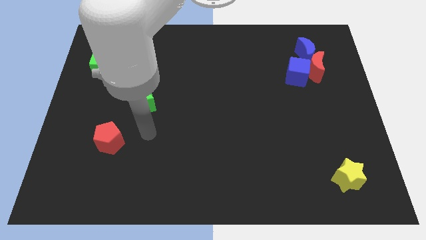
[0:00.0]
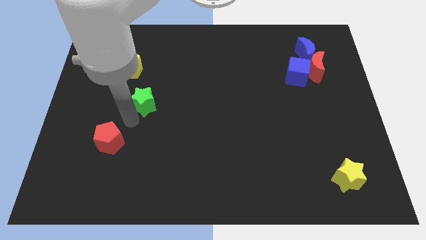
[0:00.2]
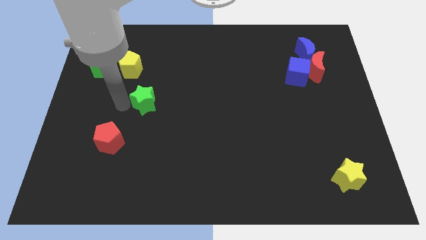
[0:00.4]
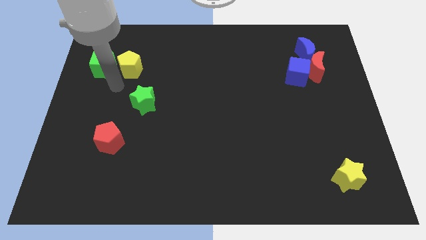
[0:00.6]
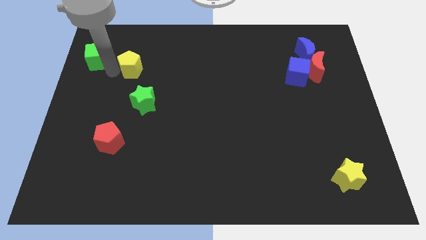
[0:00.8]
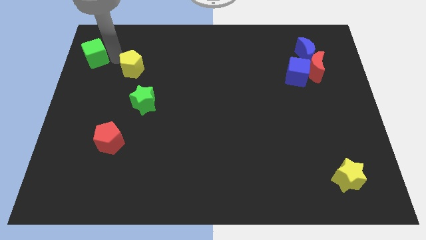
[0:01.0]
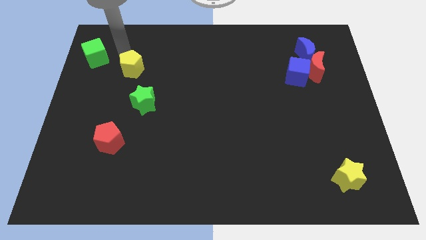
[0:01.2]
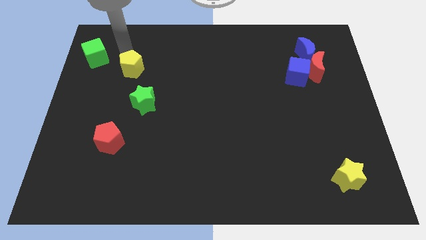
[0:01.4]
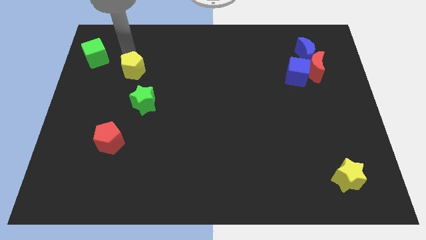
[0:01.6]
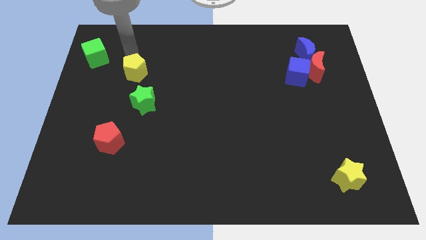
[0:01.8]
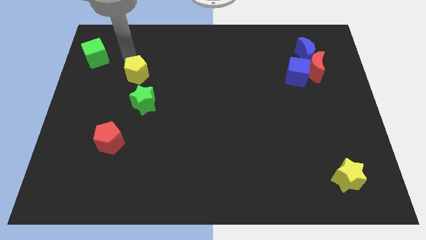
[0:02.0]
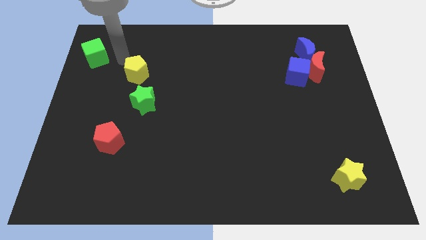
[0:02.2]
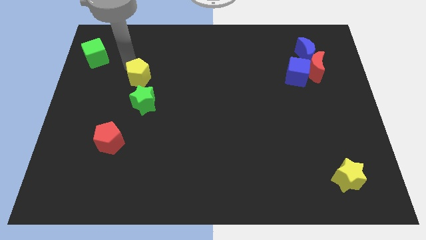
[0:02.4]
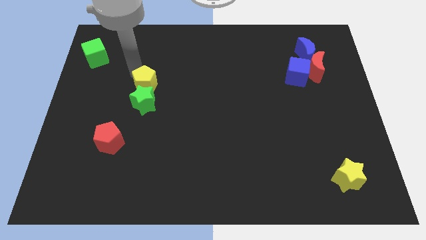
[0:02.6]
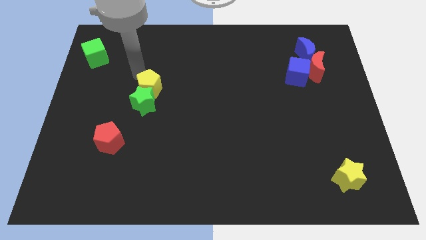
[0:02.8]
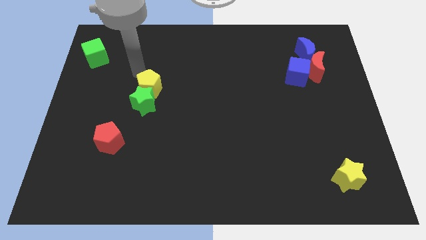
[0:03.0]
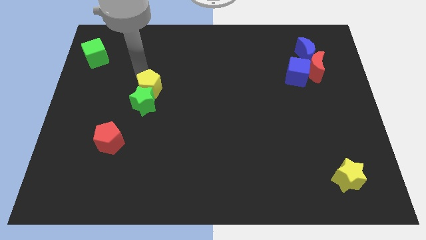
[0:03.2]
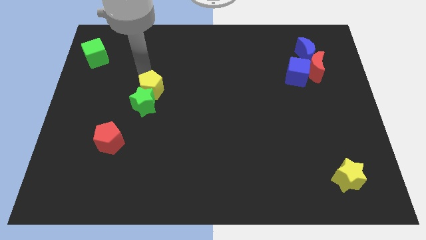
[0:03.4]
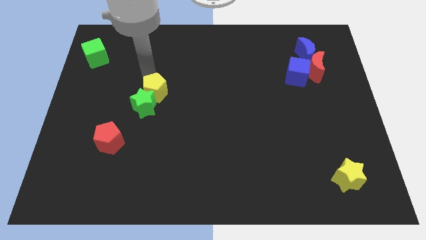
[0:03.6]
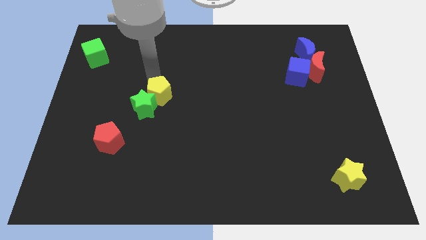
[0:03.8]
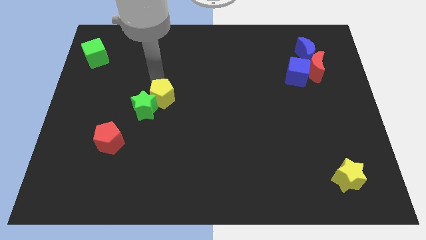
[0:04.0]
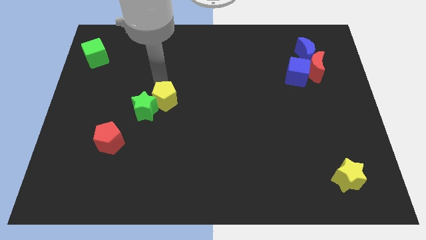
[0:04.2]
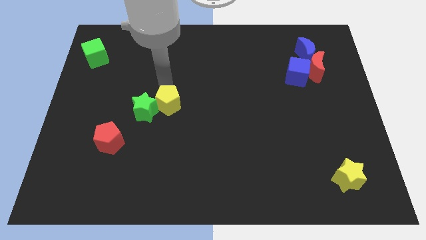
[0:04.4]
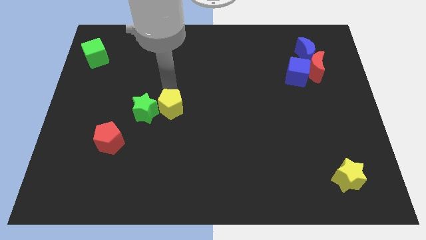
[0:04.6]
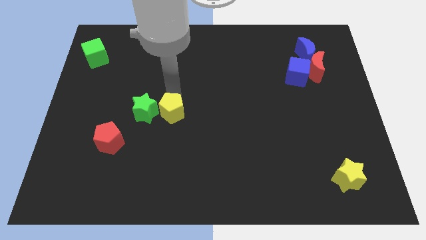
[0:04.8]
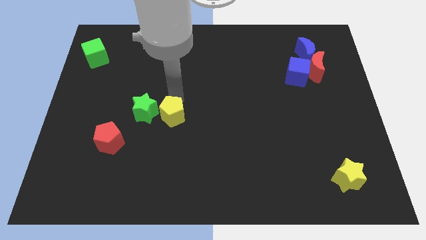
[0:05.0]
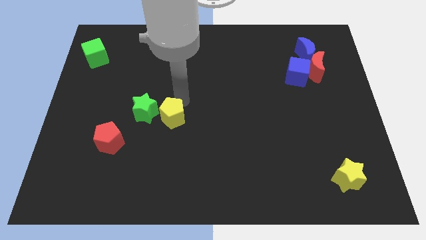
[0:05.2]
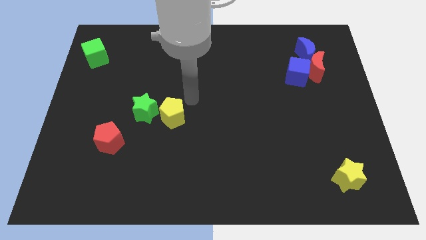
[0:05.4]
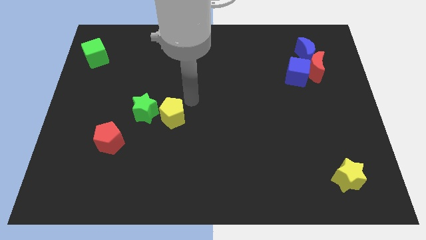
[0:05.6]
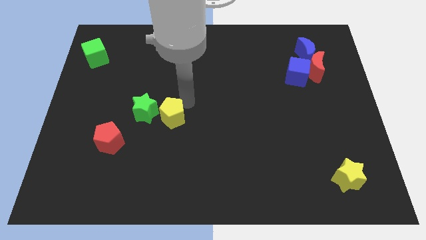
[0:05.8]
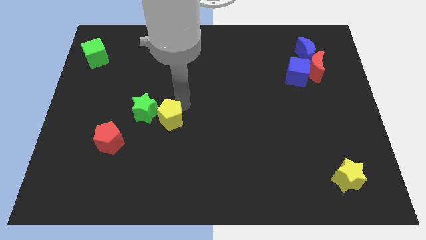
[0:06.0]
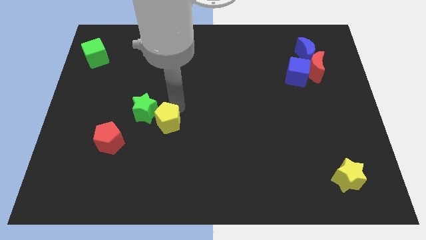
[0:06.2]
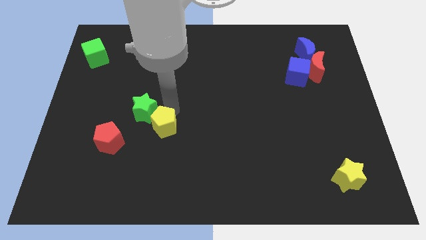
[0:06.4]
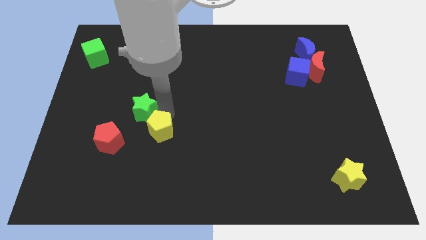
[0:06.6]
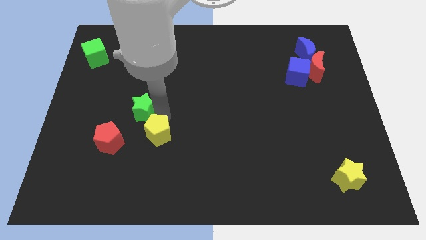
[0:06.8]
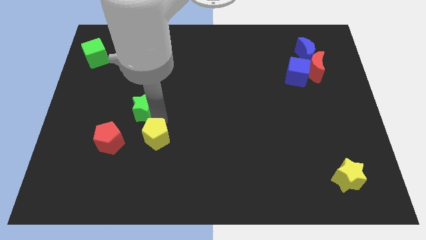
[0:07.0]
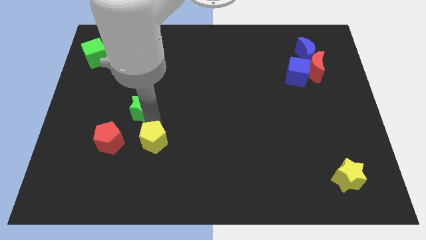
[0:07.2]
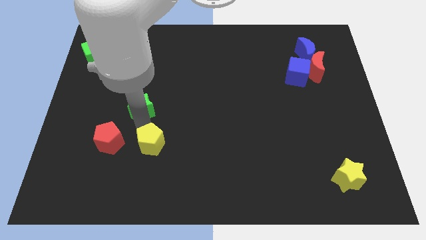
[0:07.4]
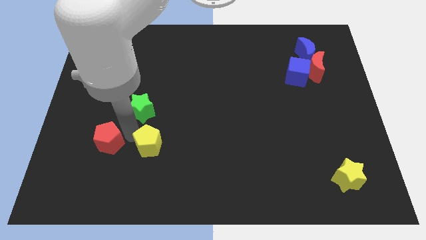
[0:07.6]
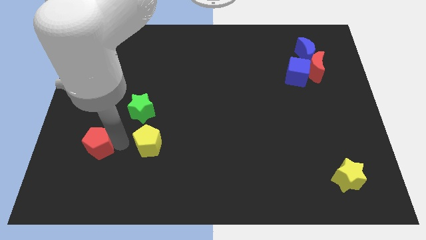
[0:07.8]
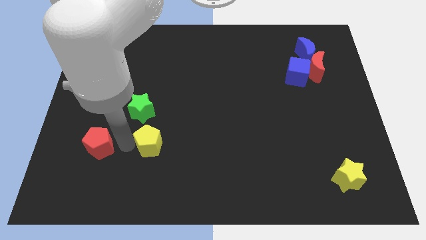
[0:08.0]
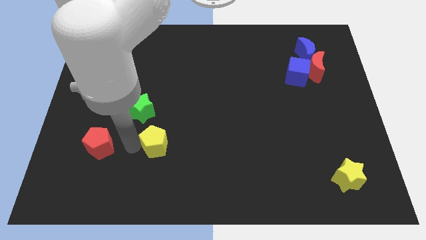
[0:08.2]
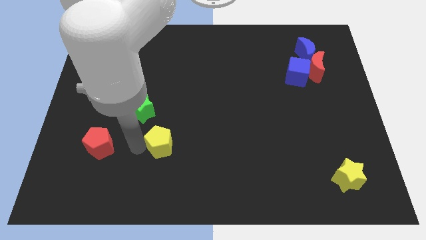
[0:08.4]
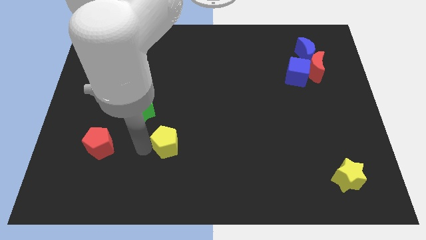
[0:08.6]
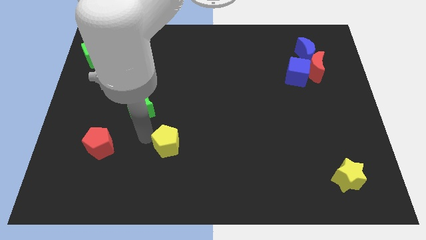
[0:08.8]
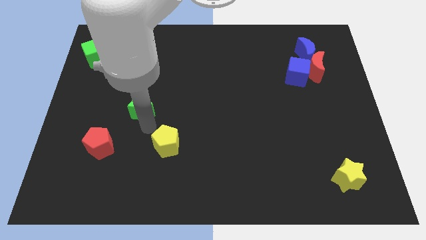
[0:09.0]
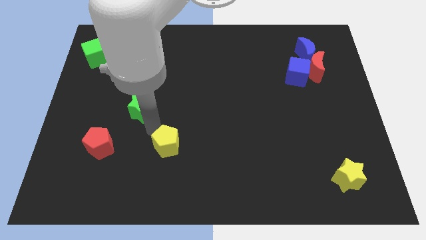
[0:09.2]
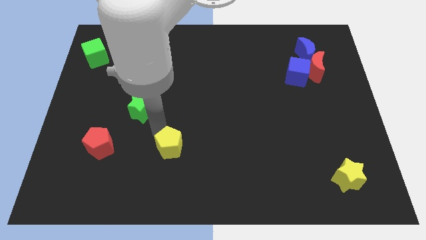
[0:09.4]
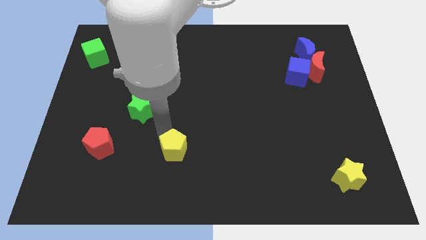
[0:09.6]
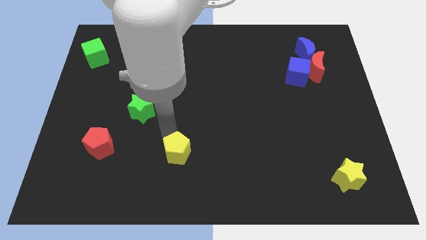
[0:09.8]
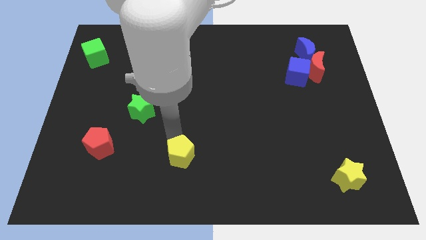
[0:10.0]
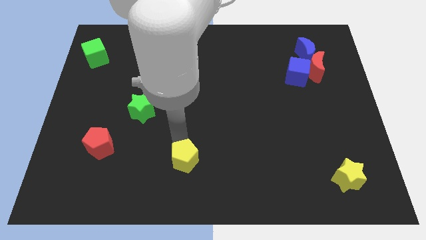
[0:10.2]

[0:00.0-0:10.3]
put the yellow pentagon to the bottom
